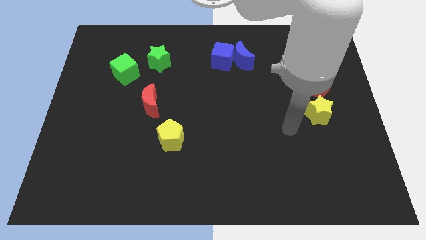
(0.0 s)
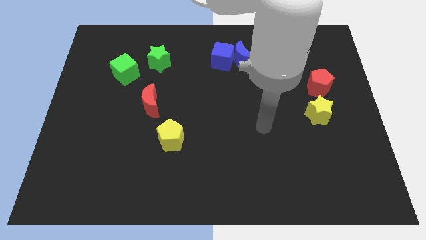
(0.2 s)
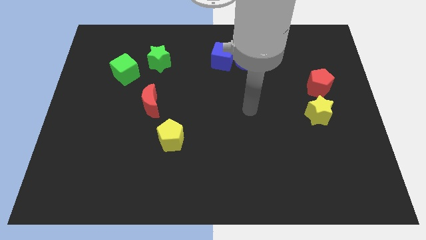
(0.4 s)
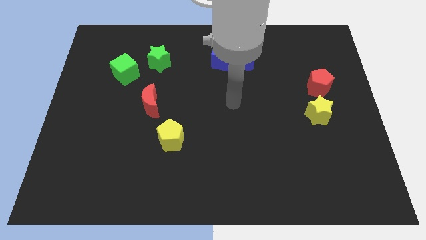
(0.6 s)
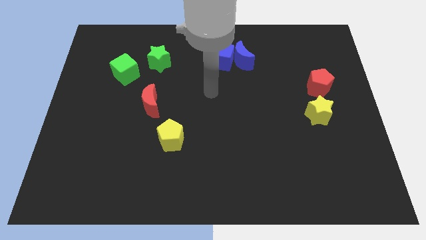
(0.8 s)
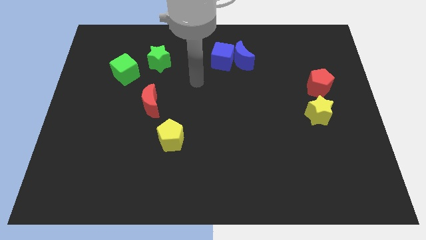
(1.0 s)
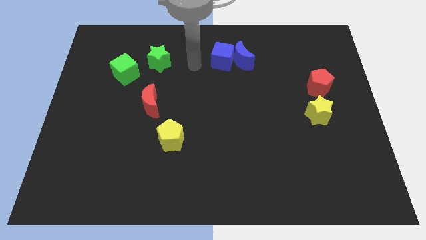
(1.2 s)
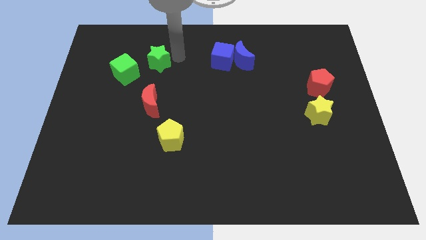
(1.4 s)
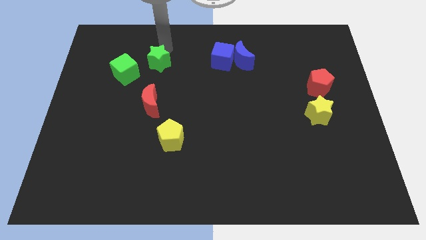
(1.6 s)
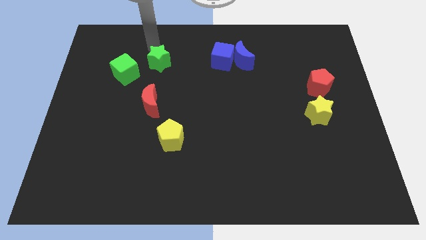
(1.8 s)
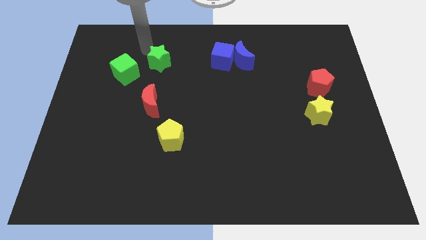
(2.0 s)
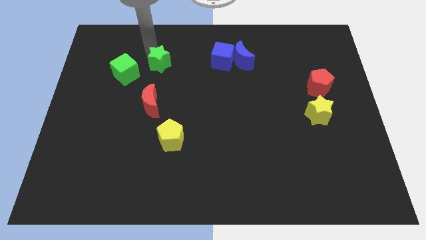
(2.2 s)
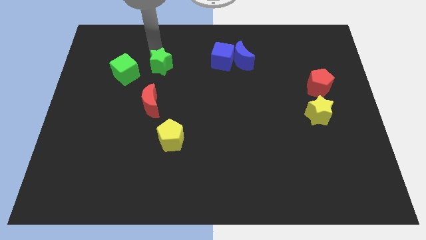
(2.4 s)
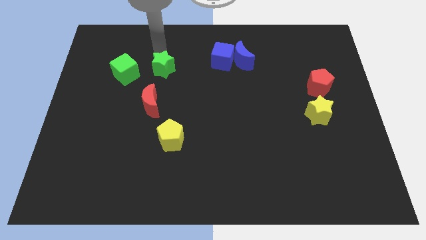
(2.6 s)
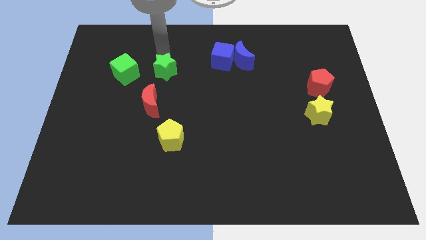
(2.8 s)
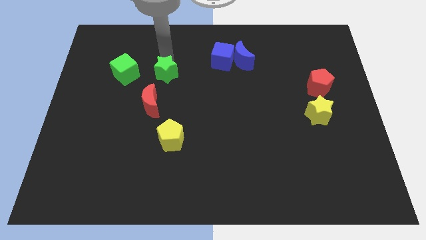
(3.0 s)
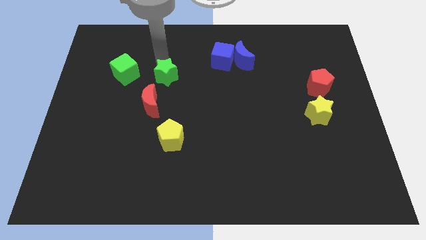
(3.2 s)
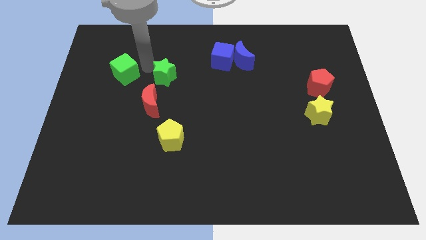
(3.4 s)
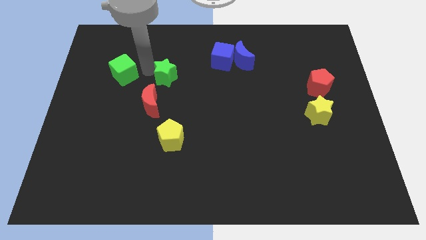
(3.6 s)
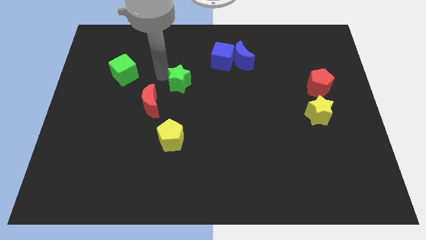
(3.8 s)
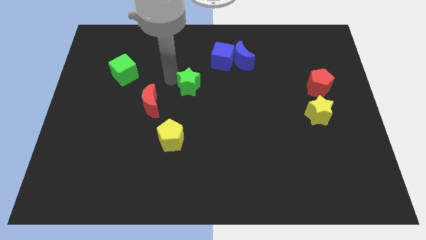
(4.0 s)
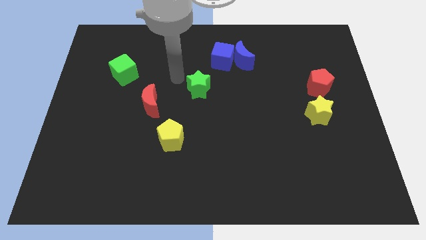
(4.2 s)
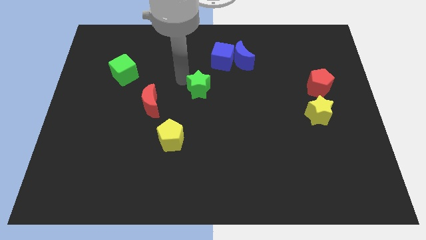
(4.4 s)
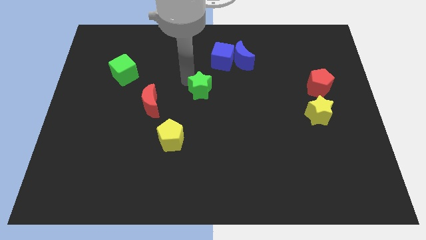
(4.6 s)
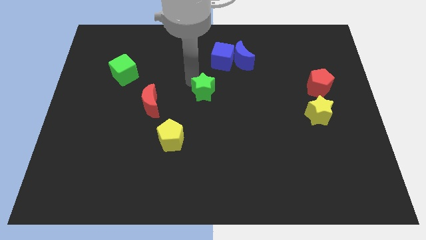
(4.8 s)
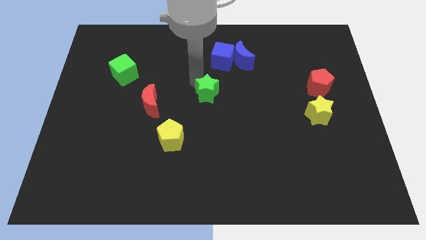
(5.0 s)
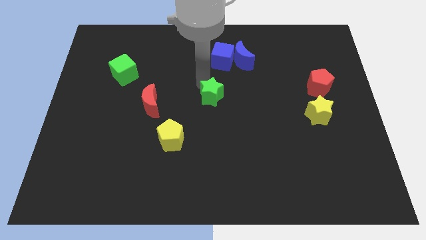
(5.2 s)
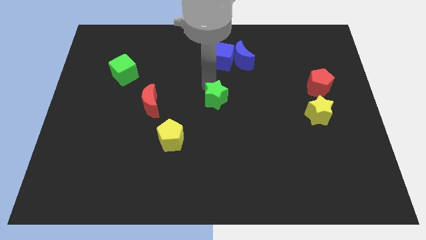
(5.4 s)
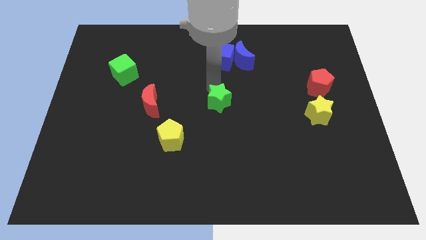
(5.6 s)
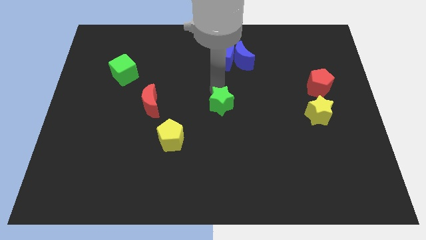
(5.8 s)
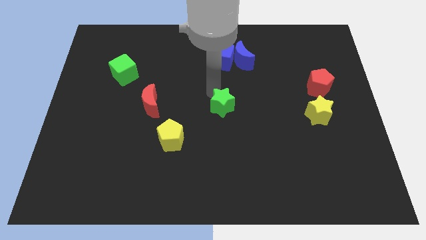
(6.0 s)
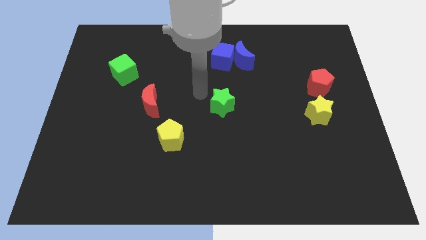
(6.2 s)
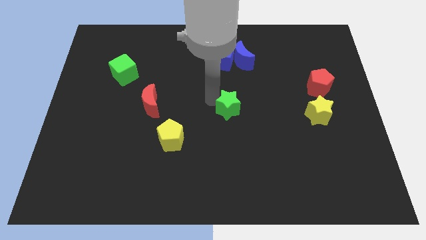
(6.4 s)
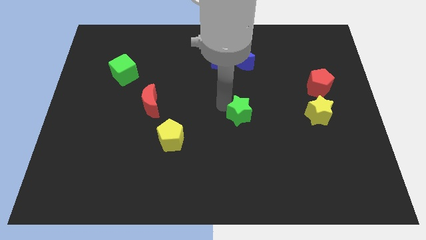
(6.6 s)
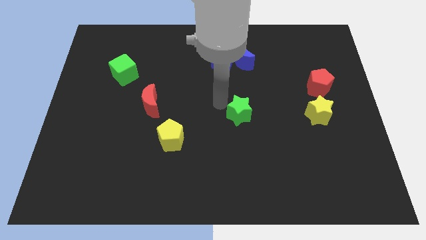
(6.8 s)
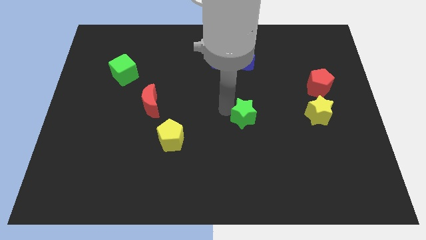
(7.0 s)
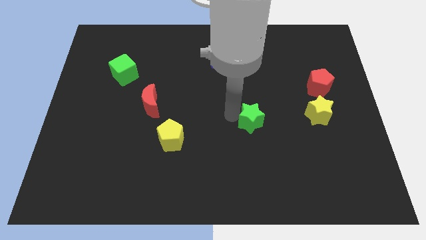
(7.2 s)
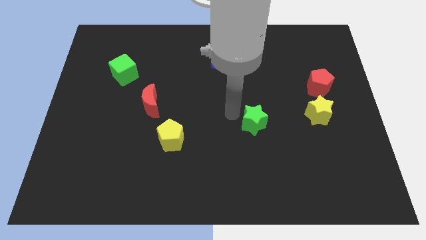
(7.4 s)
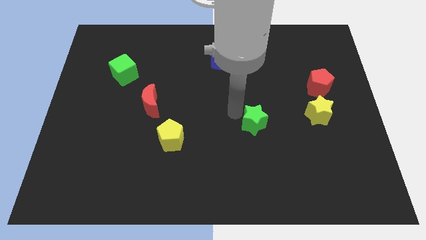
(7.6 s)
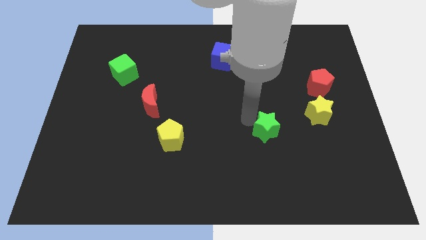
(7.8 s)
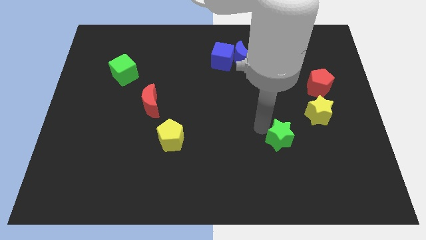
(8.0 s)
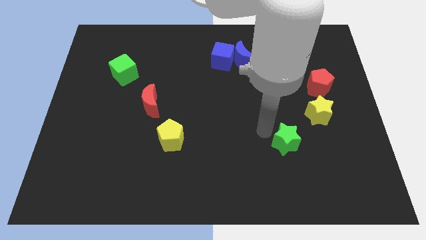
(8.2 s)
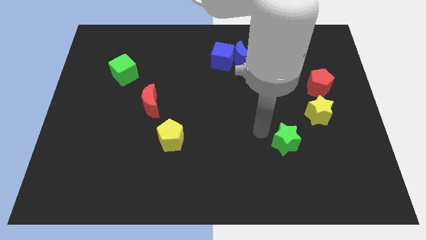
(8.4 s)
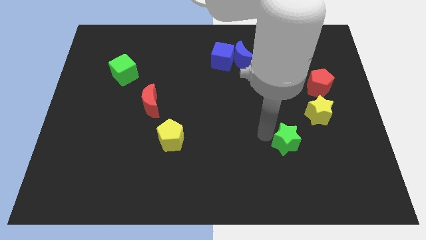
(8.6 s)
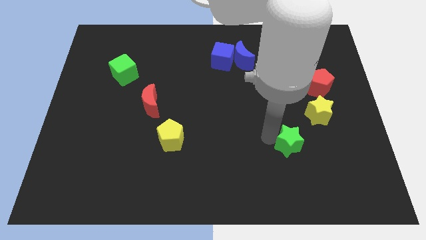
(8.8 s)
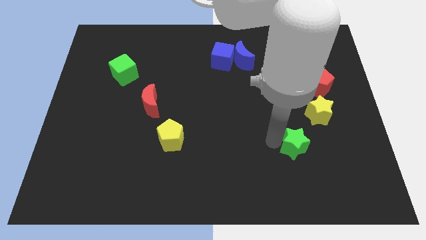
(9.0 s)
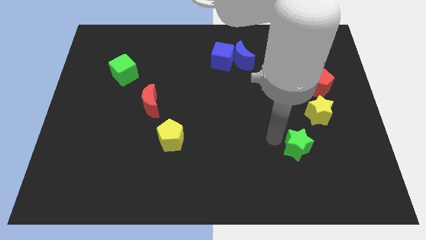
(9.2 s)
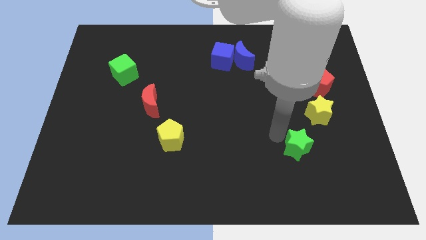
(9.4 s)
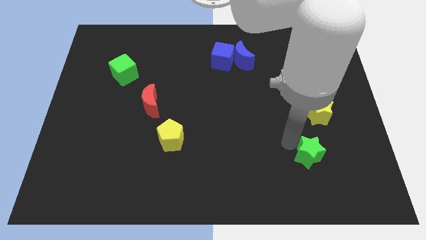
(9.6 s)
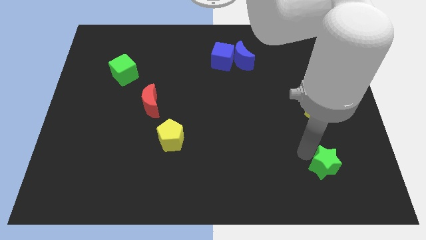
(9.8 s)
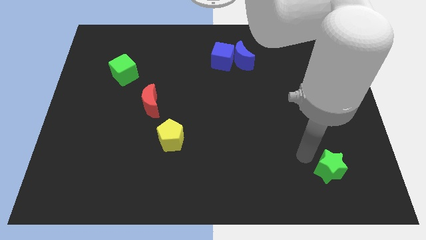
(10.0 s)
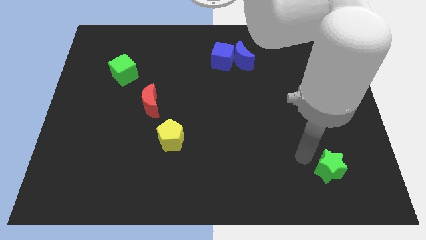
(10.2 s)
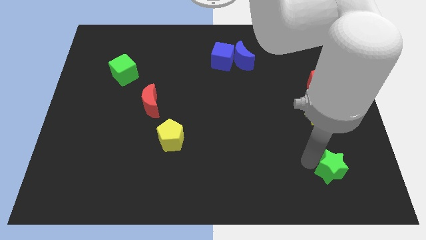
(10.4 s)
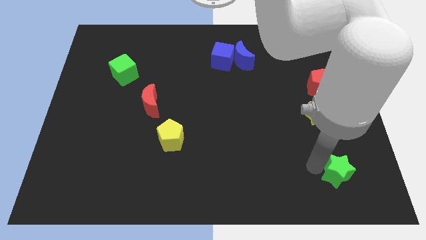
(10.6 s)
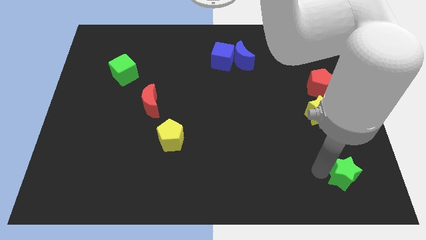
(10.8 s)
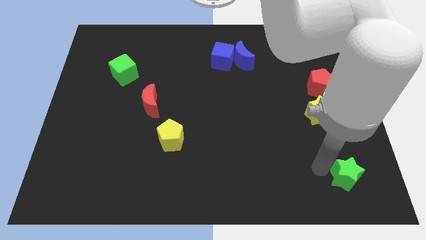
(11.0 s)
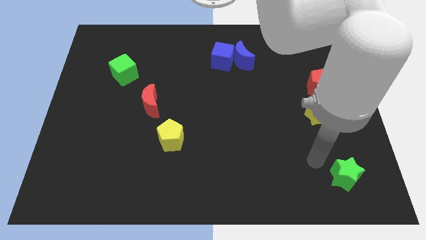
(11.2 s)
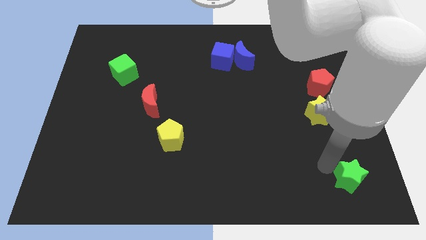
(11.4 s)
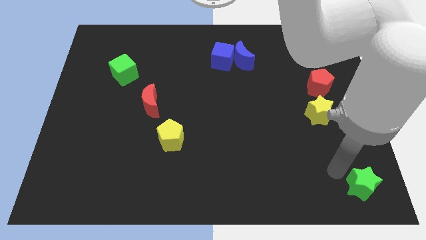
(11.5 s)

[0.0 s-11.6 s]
slide the green star to the bottom right

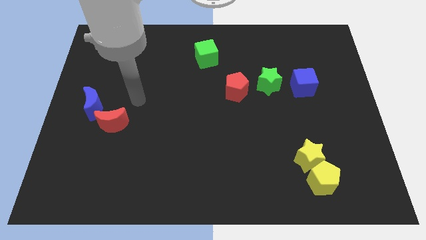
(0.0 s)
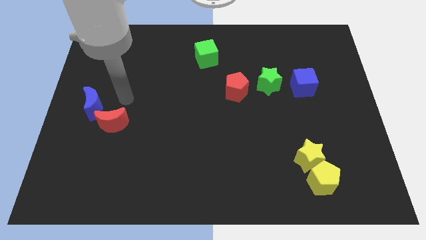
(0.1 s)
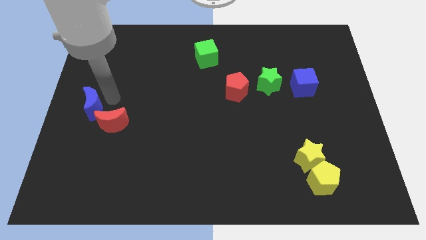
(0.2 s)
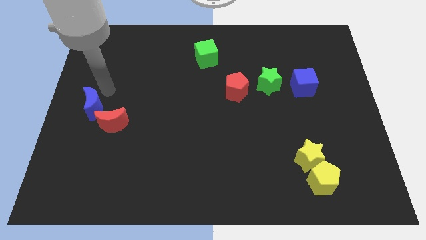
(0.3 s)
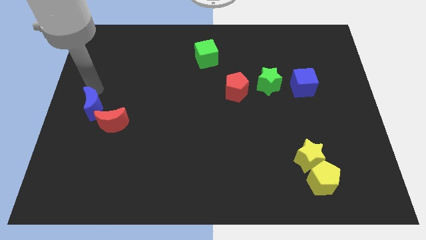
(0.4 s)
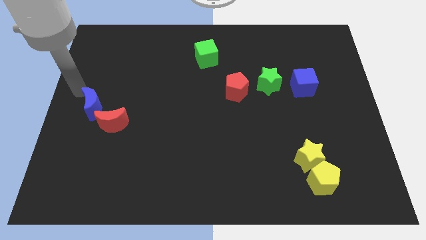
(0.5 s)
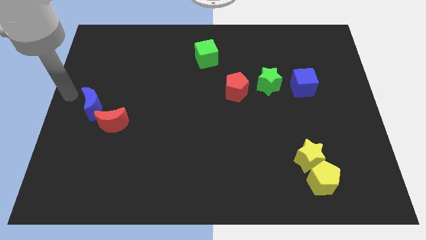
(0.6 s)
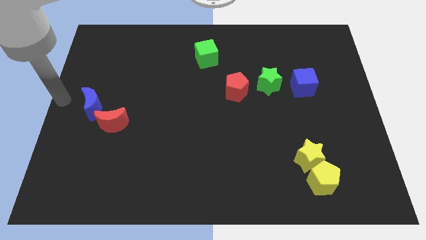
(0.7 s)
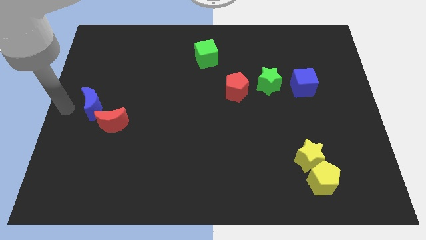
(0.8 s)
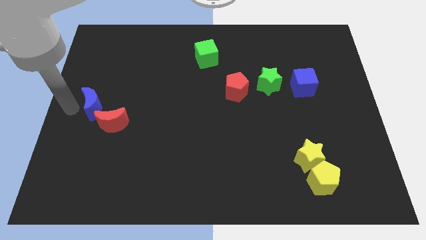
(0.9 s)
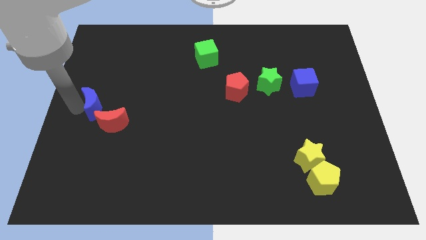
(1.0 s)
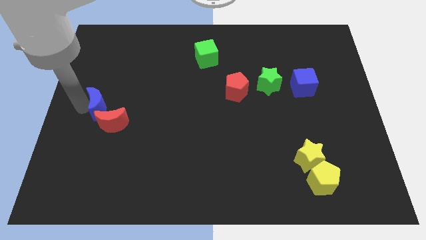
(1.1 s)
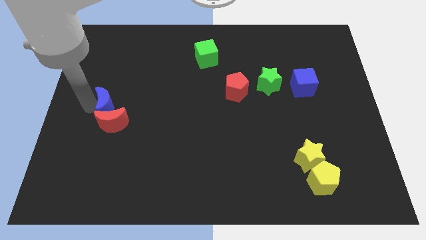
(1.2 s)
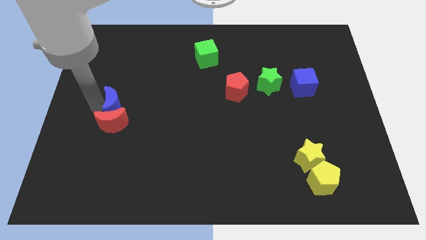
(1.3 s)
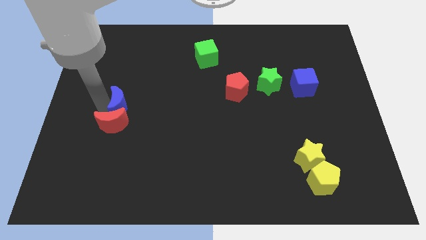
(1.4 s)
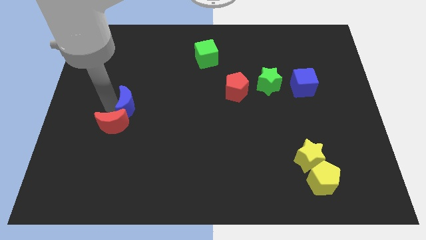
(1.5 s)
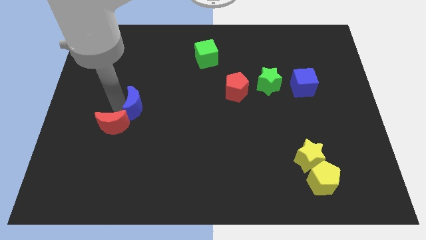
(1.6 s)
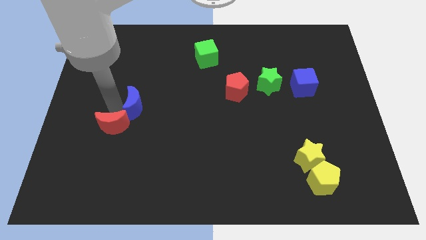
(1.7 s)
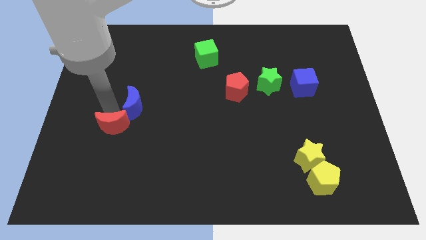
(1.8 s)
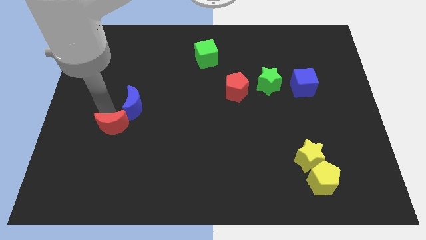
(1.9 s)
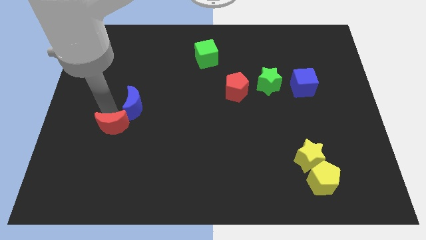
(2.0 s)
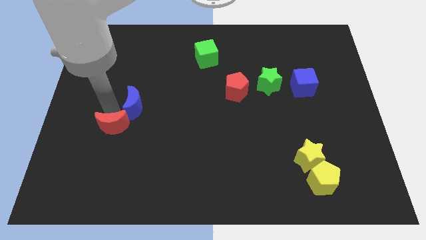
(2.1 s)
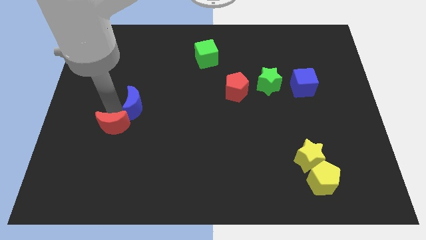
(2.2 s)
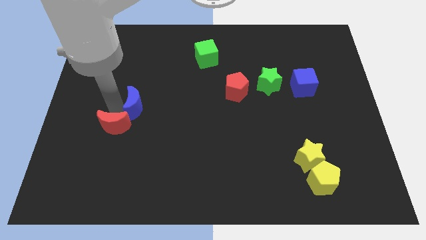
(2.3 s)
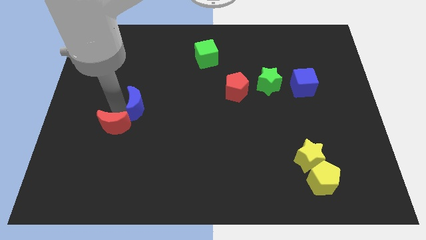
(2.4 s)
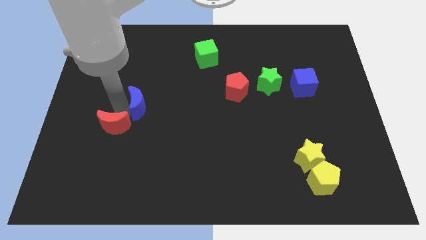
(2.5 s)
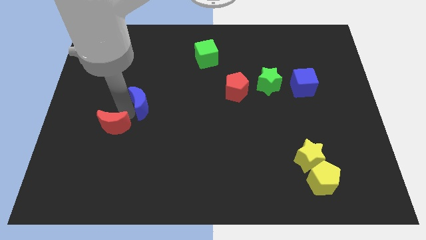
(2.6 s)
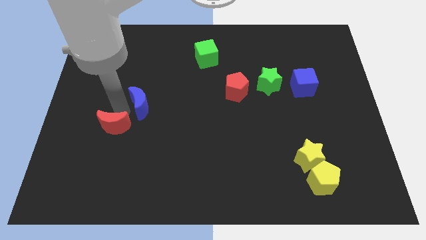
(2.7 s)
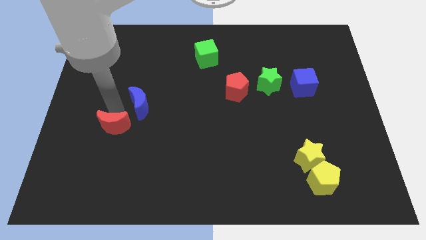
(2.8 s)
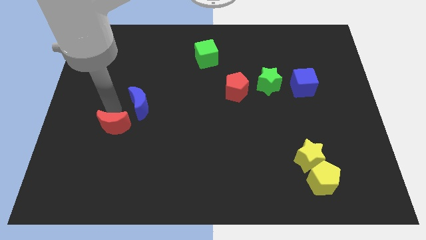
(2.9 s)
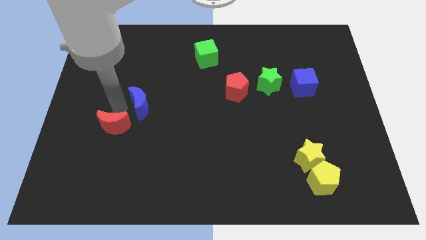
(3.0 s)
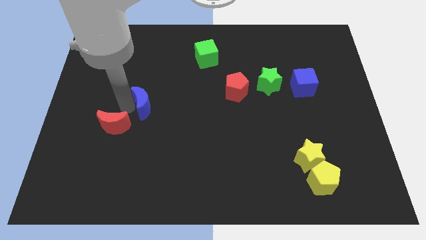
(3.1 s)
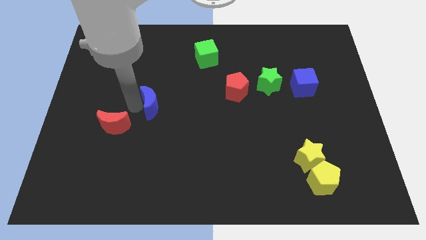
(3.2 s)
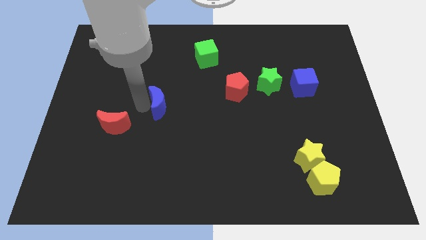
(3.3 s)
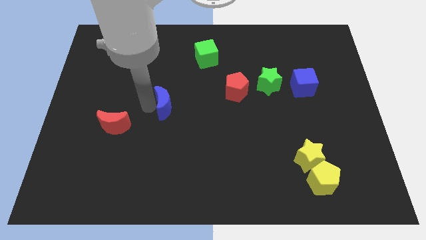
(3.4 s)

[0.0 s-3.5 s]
move the blue moon to the middle of the board
